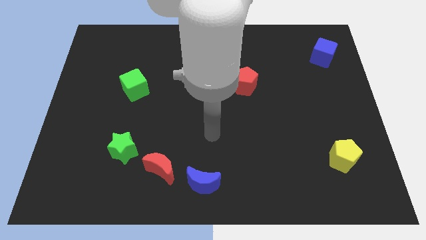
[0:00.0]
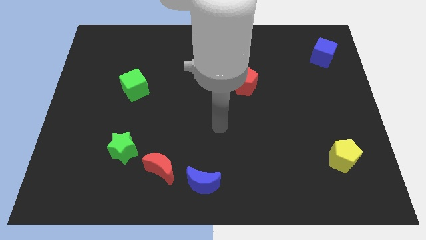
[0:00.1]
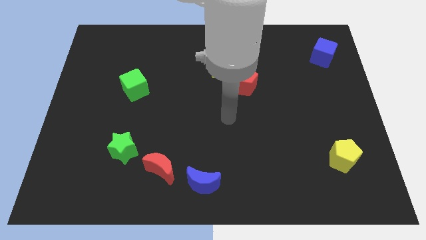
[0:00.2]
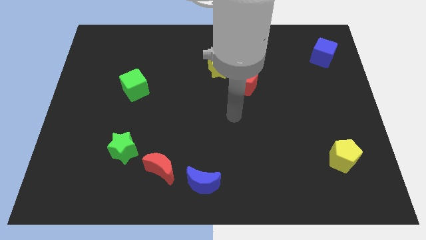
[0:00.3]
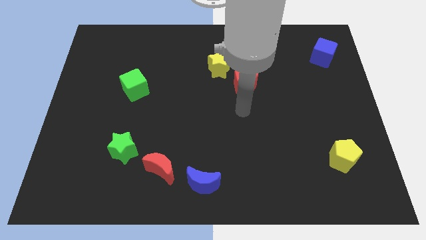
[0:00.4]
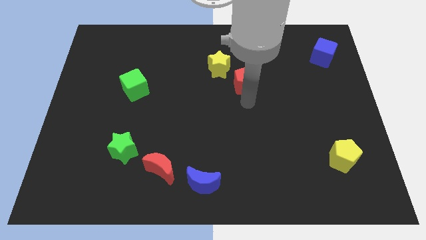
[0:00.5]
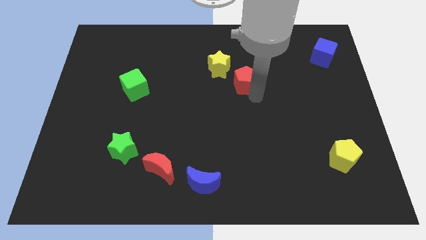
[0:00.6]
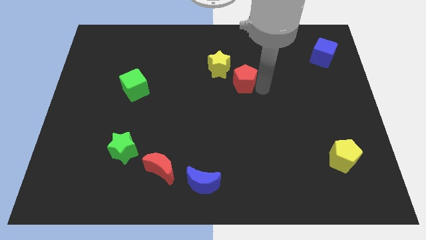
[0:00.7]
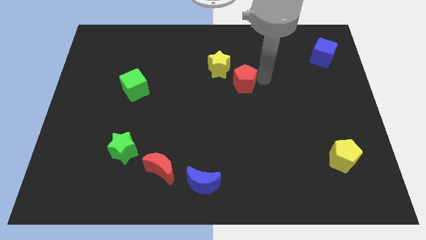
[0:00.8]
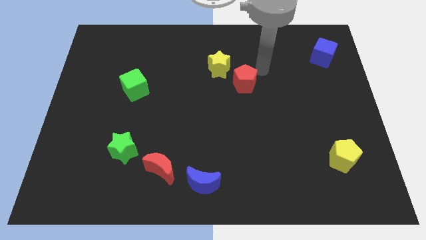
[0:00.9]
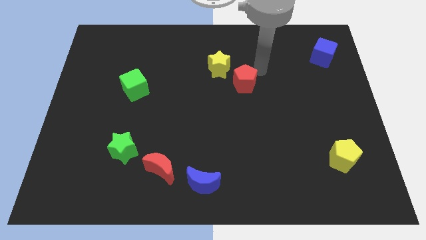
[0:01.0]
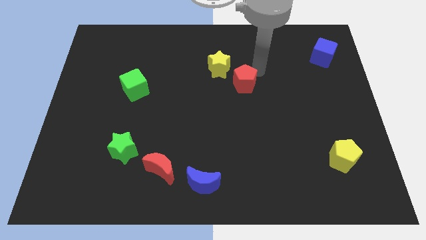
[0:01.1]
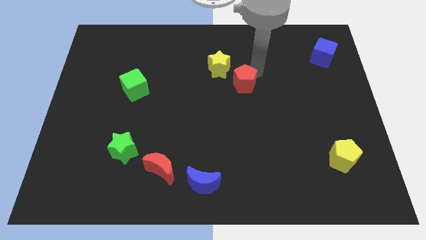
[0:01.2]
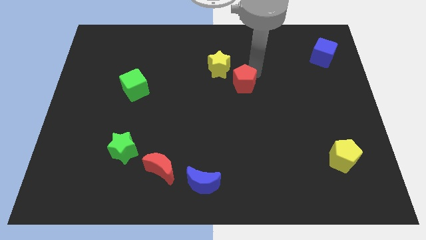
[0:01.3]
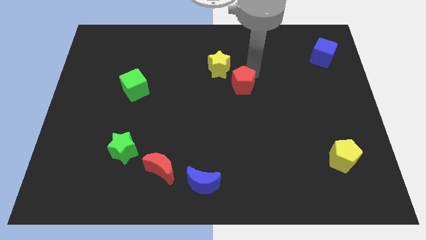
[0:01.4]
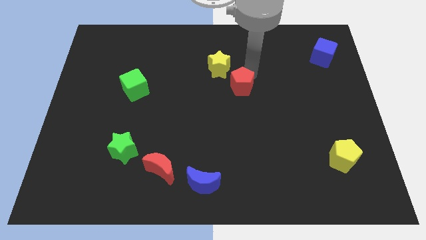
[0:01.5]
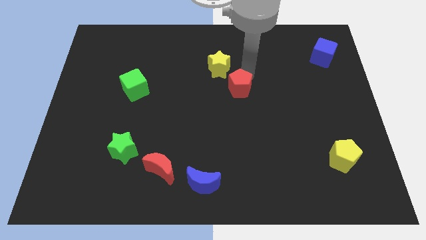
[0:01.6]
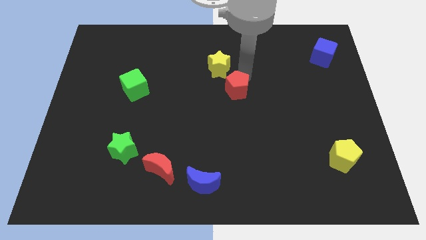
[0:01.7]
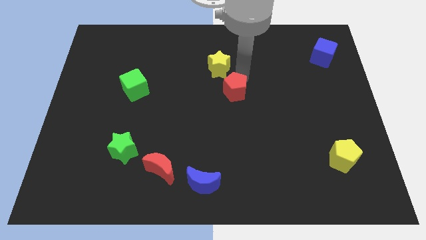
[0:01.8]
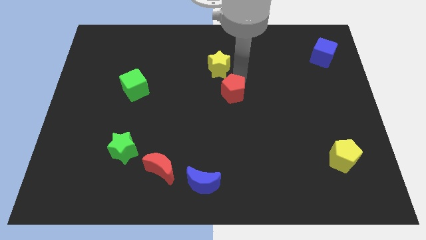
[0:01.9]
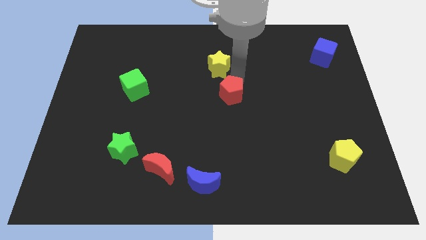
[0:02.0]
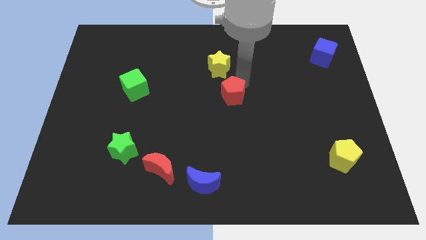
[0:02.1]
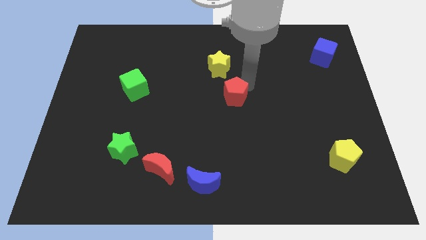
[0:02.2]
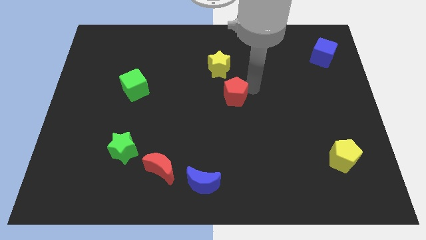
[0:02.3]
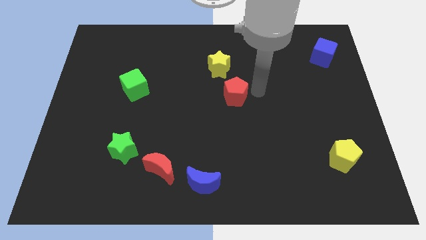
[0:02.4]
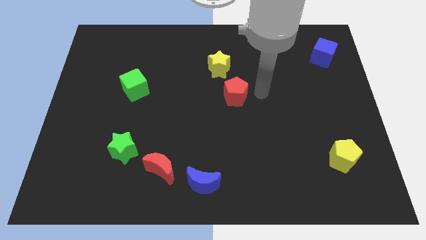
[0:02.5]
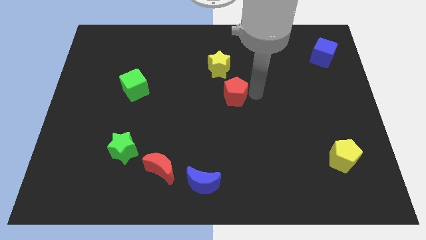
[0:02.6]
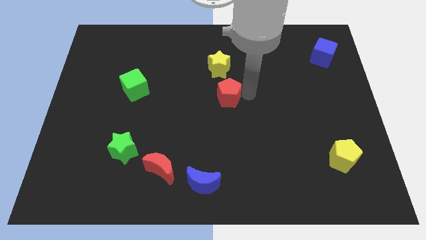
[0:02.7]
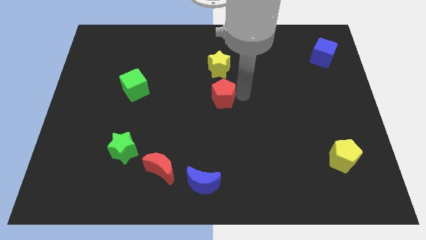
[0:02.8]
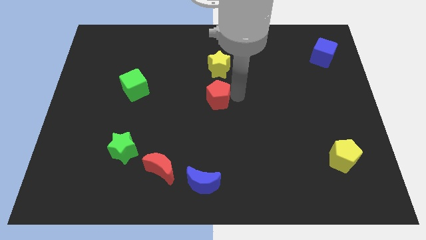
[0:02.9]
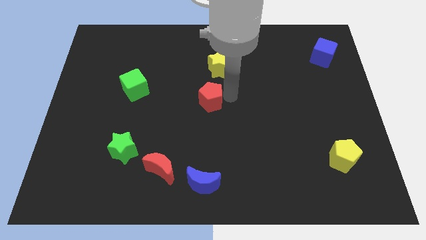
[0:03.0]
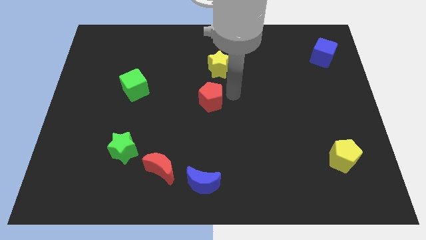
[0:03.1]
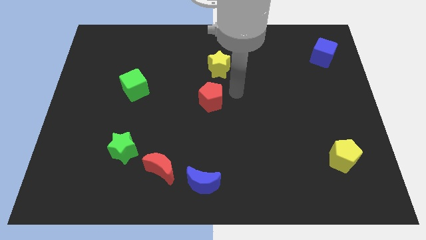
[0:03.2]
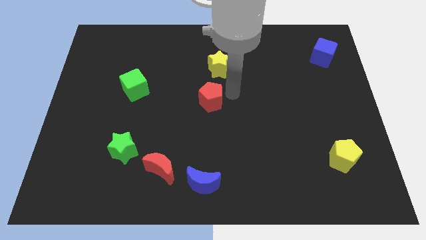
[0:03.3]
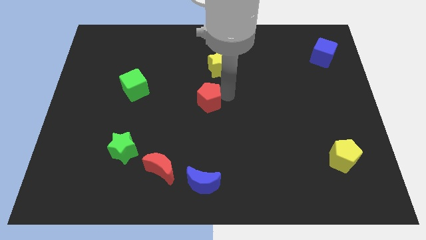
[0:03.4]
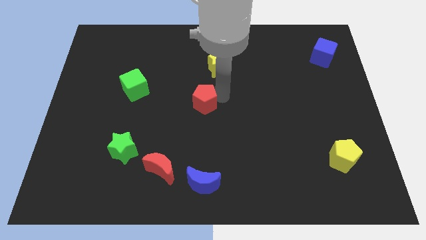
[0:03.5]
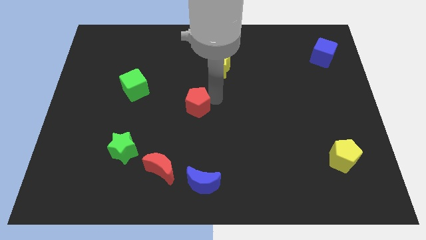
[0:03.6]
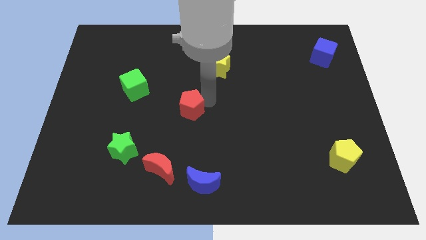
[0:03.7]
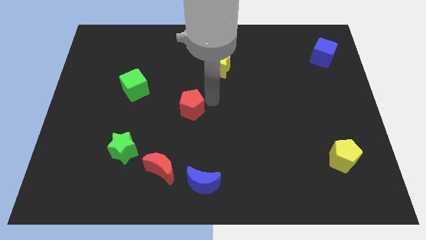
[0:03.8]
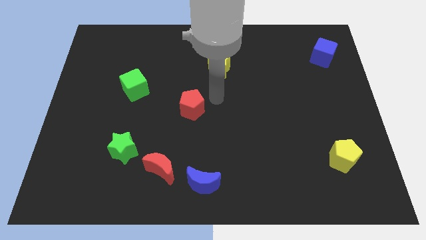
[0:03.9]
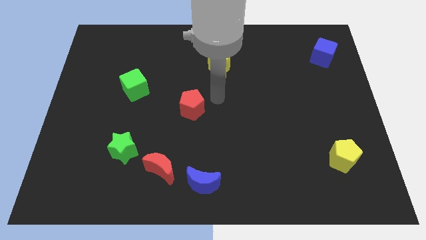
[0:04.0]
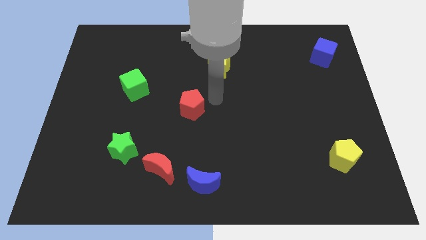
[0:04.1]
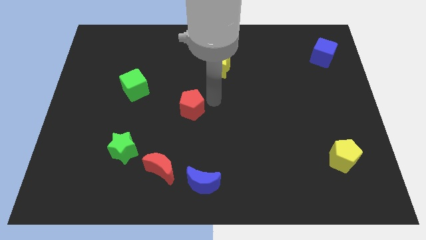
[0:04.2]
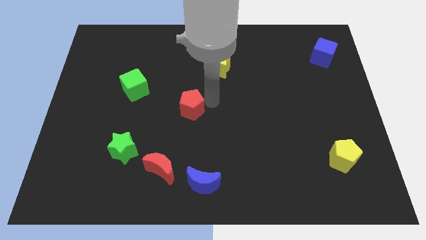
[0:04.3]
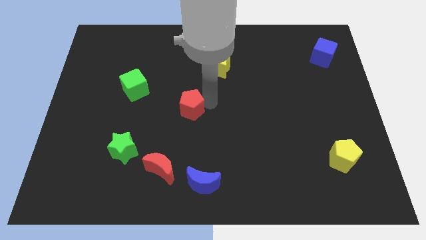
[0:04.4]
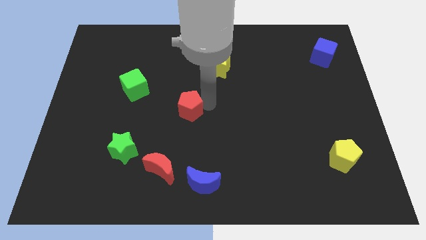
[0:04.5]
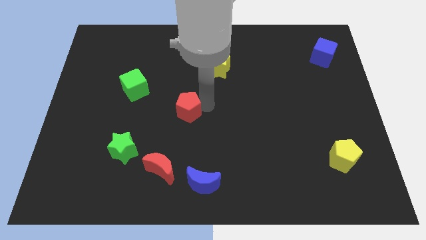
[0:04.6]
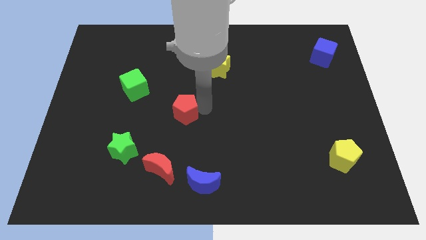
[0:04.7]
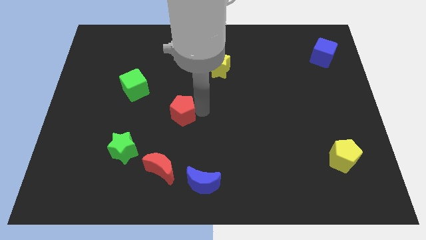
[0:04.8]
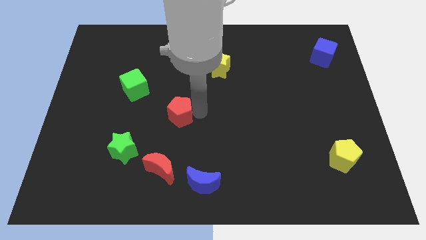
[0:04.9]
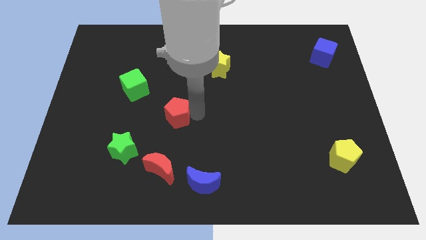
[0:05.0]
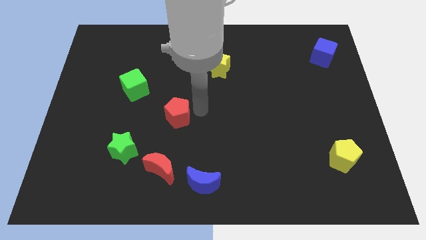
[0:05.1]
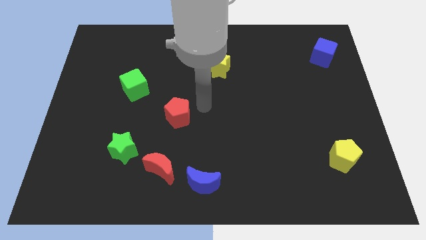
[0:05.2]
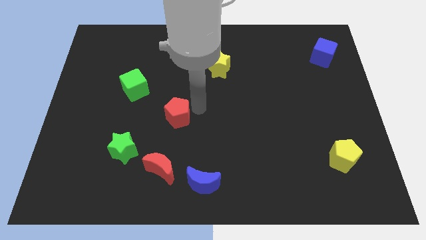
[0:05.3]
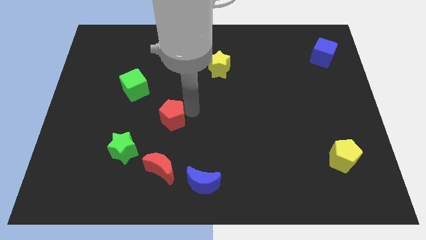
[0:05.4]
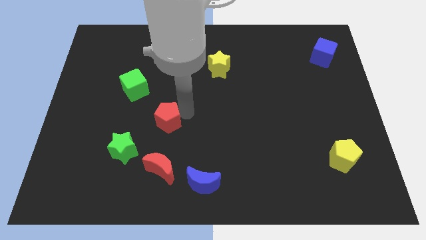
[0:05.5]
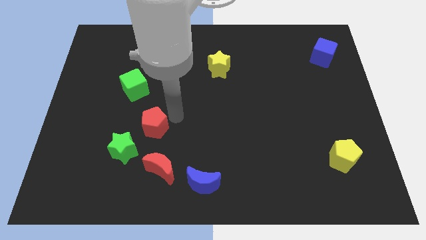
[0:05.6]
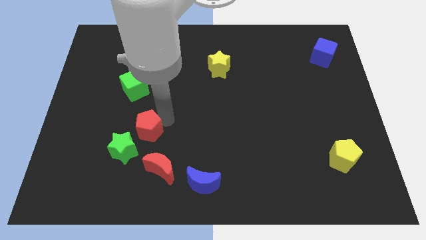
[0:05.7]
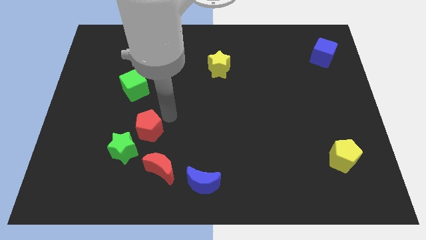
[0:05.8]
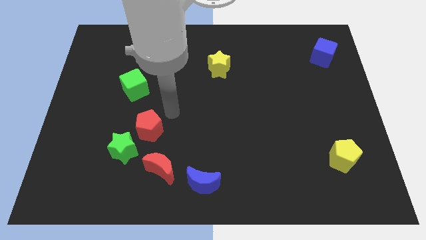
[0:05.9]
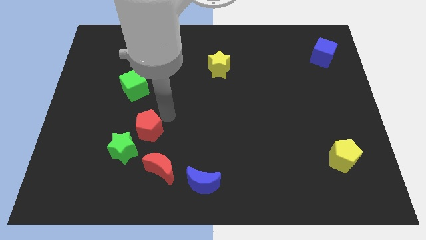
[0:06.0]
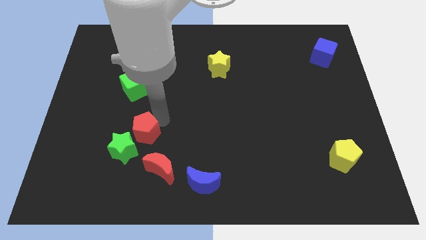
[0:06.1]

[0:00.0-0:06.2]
put the red pentagon towards the green star
